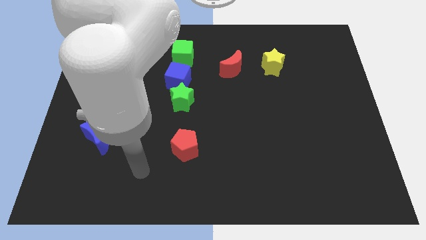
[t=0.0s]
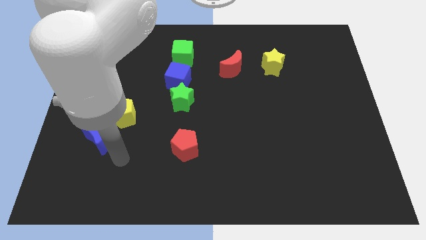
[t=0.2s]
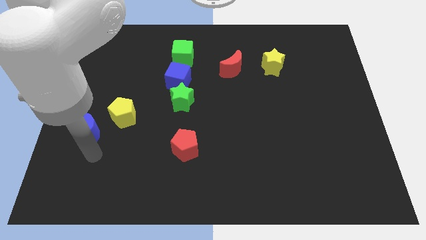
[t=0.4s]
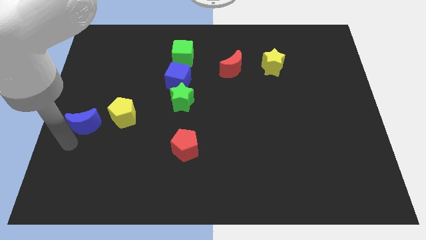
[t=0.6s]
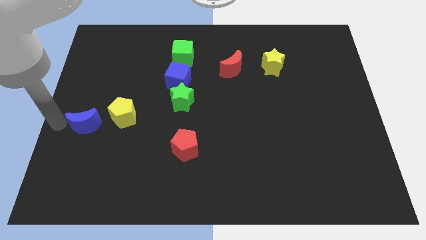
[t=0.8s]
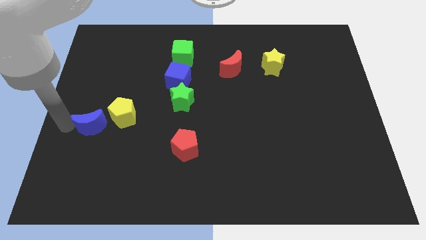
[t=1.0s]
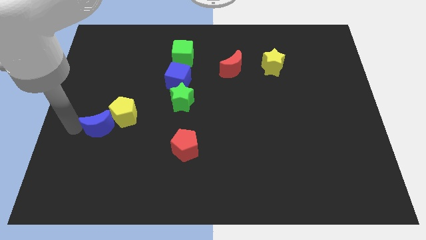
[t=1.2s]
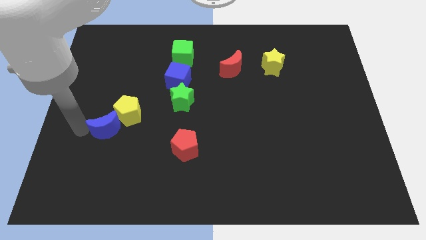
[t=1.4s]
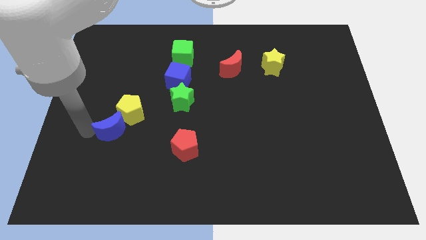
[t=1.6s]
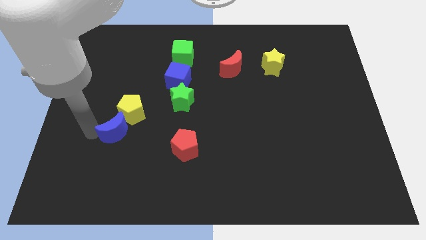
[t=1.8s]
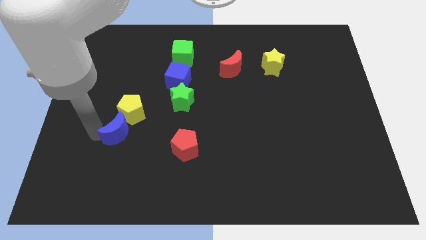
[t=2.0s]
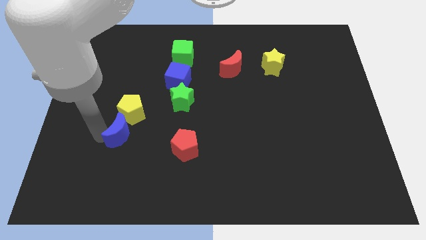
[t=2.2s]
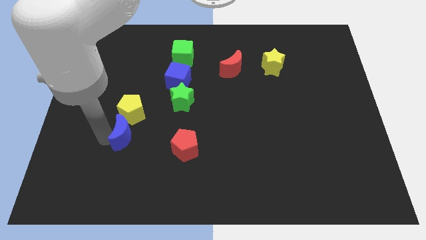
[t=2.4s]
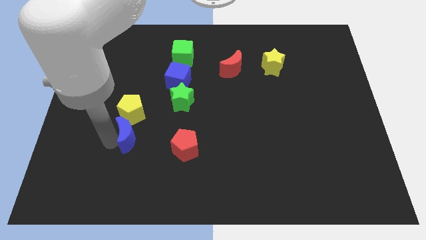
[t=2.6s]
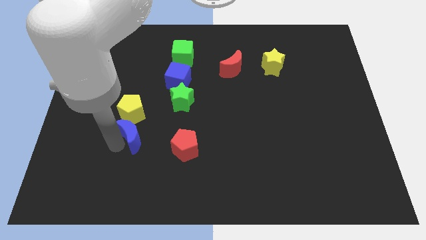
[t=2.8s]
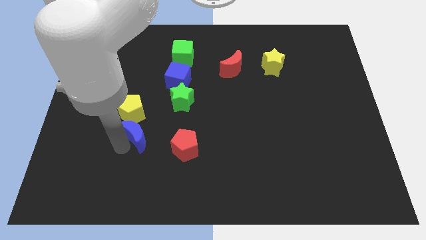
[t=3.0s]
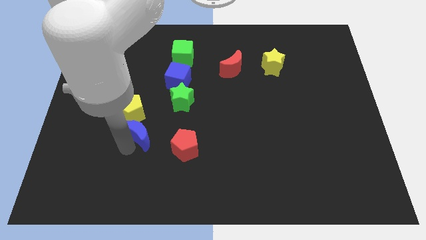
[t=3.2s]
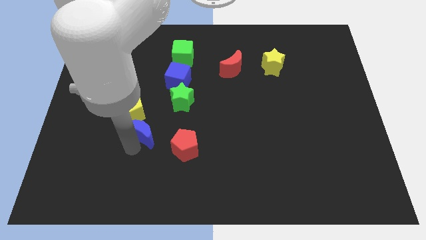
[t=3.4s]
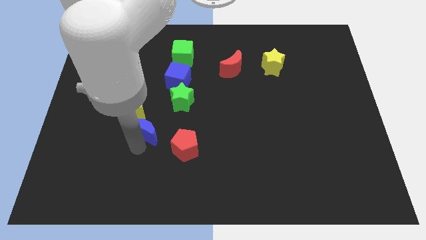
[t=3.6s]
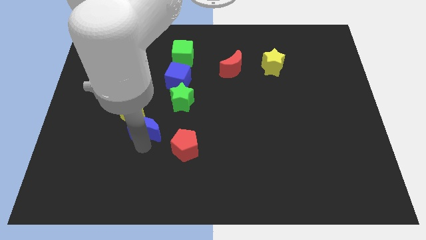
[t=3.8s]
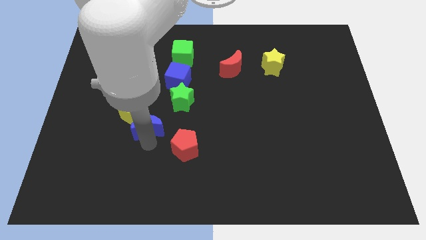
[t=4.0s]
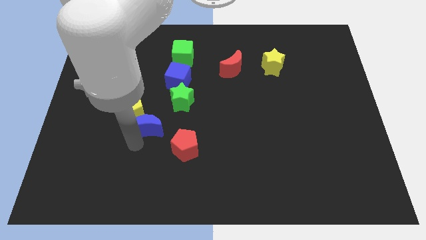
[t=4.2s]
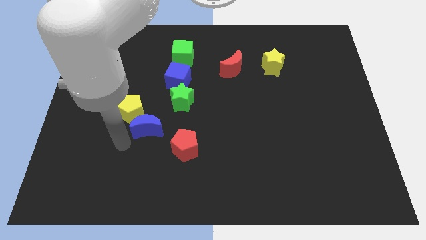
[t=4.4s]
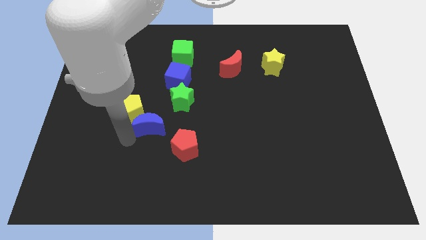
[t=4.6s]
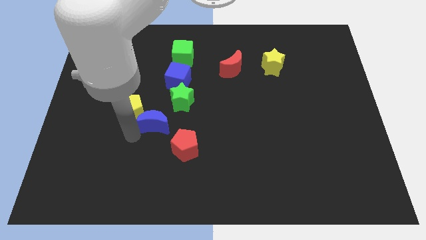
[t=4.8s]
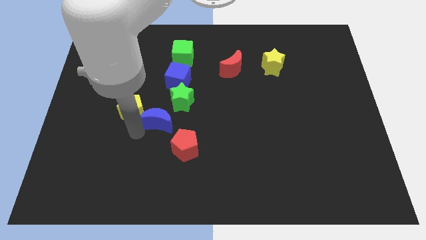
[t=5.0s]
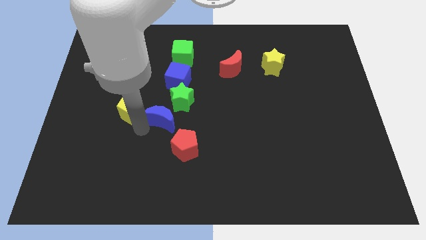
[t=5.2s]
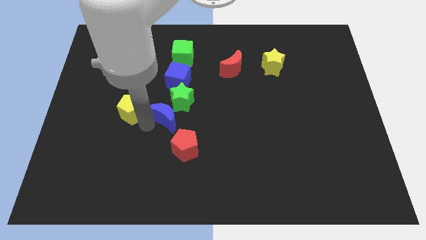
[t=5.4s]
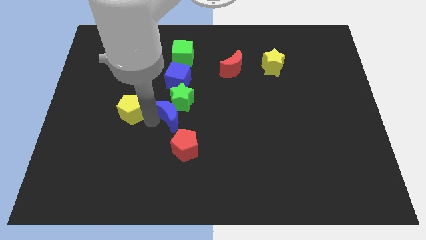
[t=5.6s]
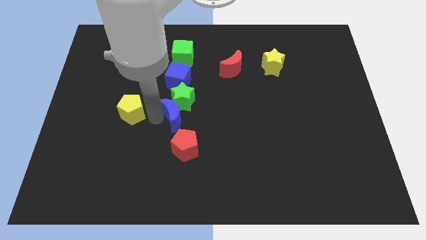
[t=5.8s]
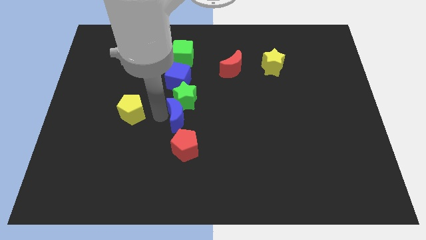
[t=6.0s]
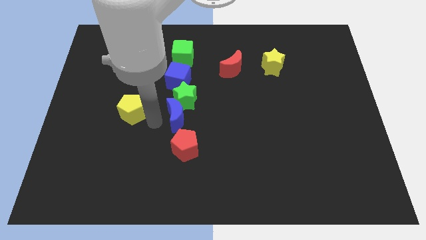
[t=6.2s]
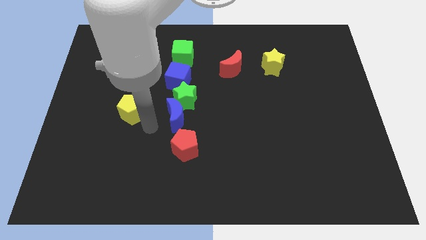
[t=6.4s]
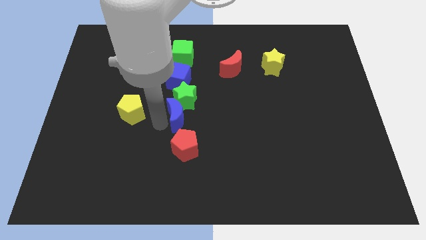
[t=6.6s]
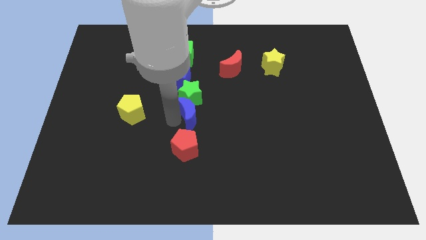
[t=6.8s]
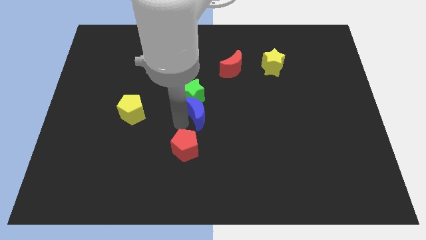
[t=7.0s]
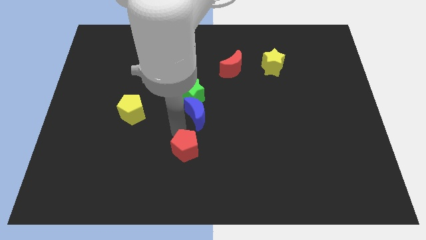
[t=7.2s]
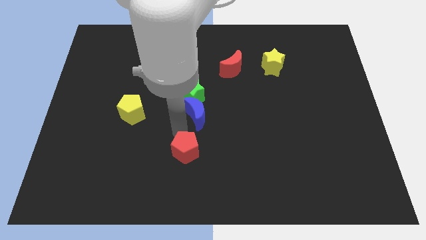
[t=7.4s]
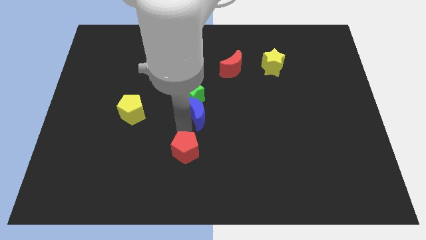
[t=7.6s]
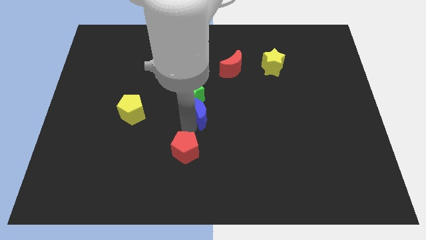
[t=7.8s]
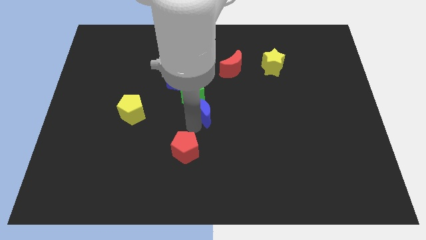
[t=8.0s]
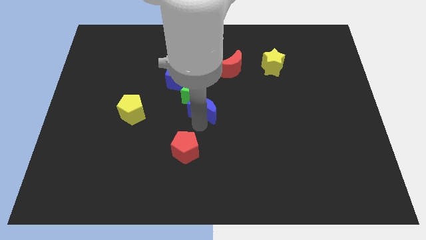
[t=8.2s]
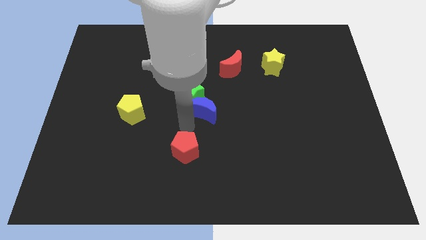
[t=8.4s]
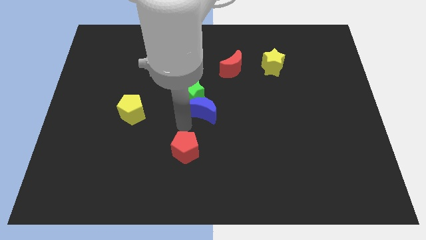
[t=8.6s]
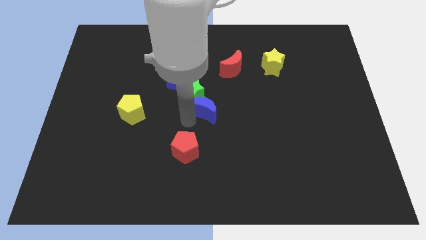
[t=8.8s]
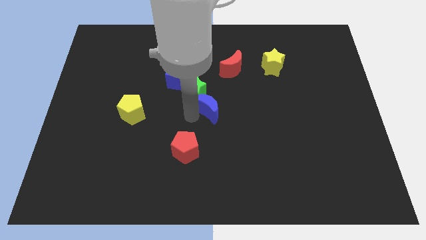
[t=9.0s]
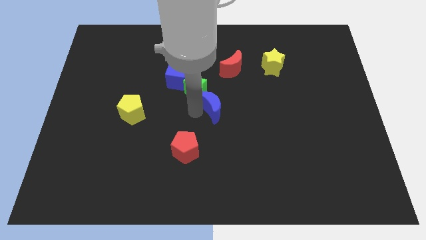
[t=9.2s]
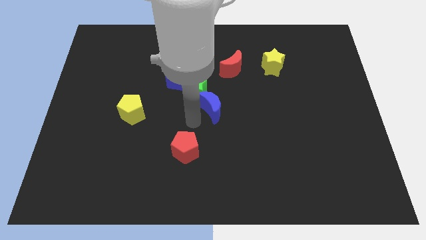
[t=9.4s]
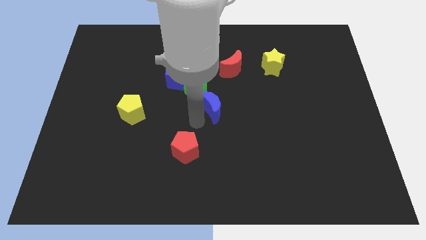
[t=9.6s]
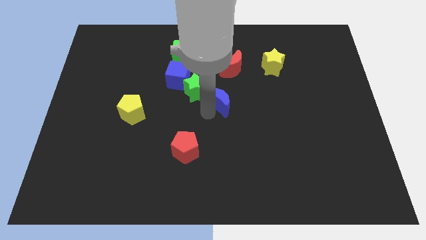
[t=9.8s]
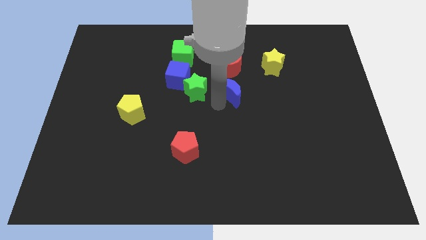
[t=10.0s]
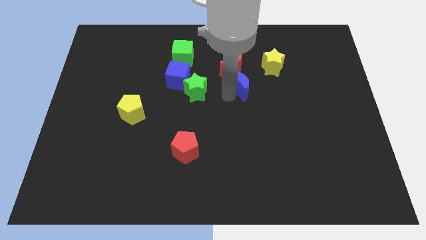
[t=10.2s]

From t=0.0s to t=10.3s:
push the blue moon to the bottom left of the yellow star

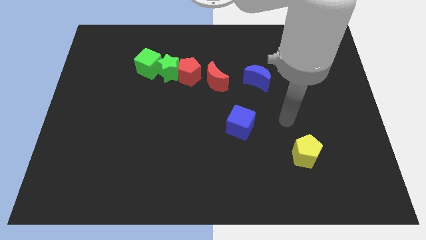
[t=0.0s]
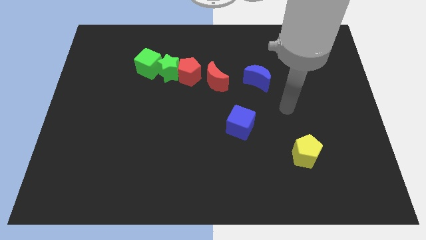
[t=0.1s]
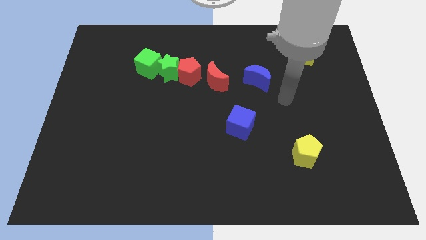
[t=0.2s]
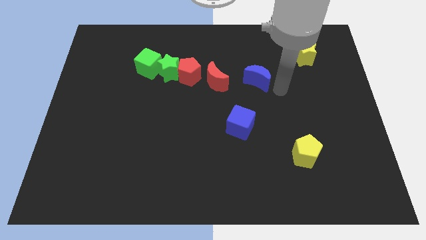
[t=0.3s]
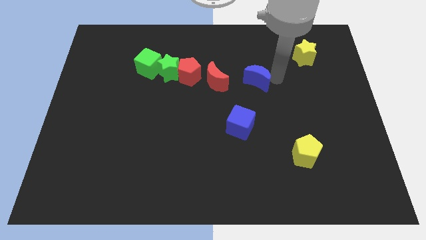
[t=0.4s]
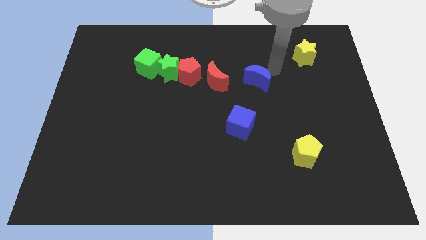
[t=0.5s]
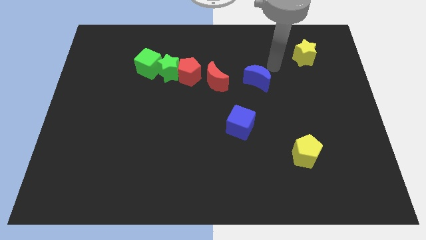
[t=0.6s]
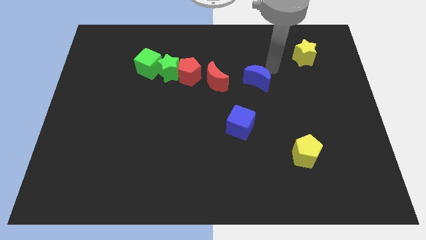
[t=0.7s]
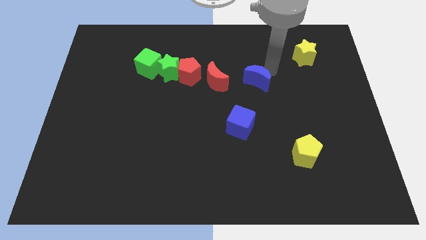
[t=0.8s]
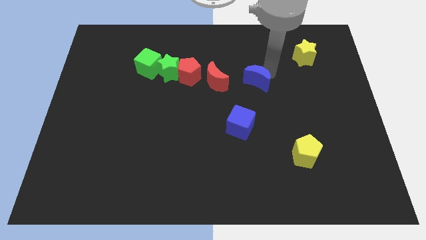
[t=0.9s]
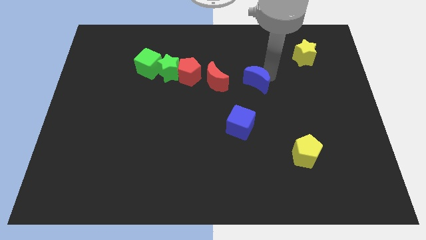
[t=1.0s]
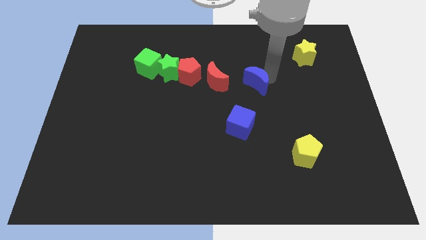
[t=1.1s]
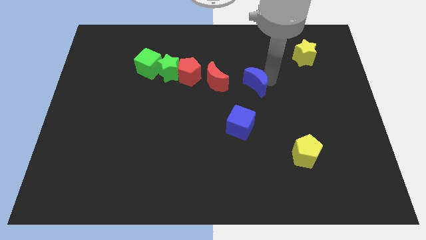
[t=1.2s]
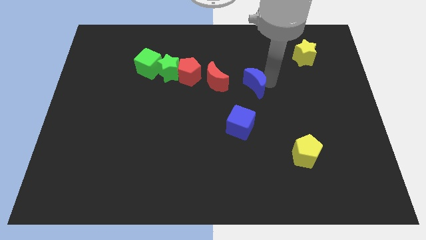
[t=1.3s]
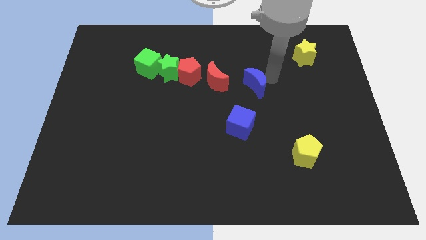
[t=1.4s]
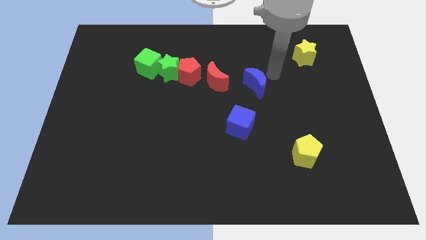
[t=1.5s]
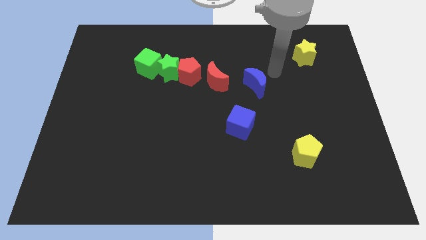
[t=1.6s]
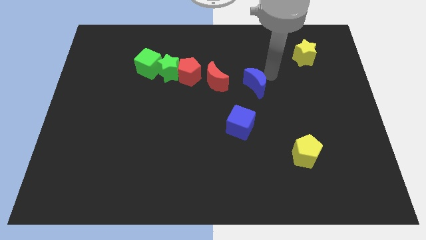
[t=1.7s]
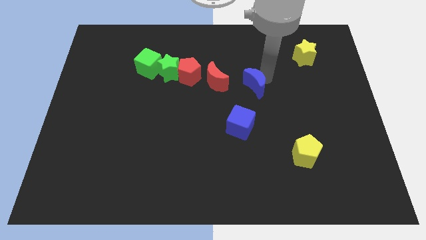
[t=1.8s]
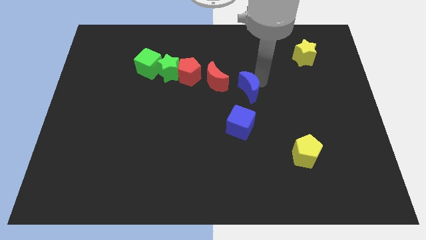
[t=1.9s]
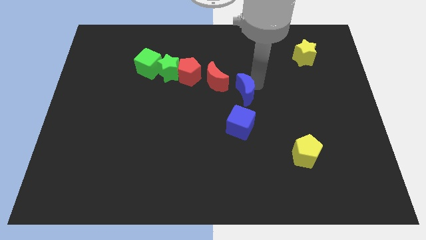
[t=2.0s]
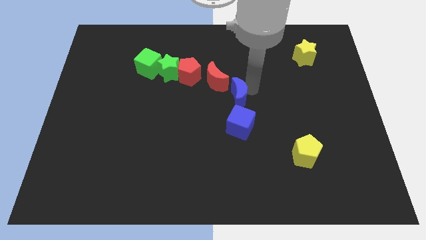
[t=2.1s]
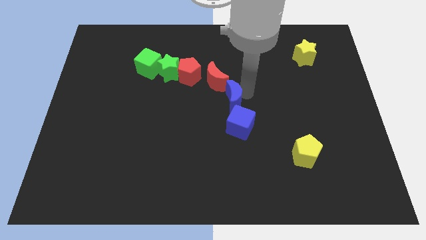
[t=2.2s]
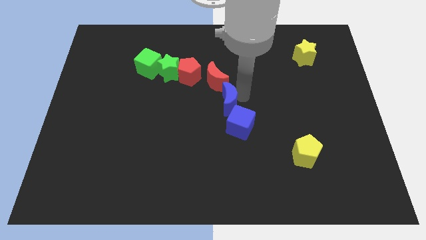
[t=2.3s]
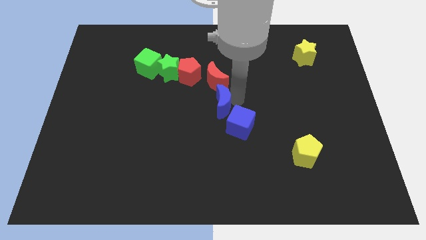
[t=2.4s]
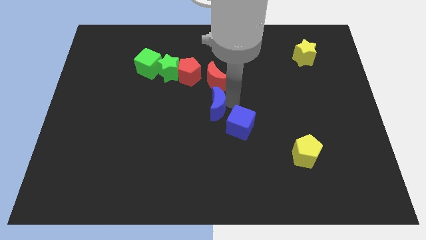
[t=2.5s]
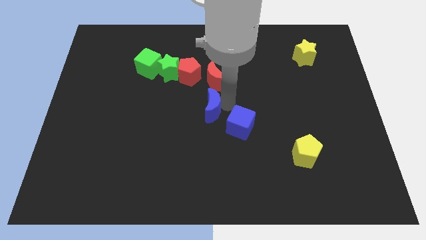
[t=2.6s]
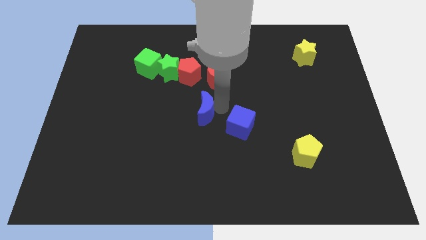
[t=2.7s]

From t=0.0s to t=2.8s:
push the blue moon to the bottom side of the red pentagon
